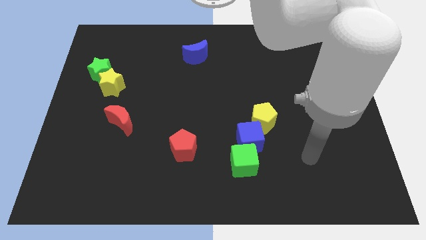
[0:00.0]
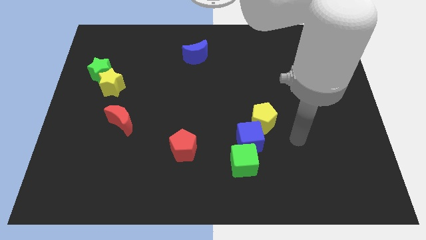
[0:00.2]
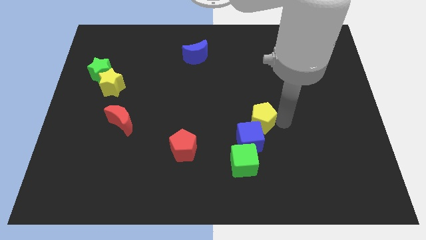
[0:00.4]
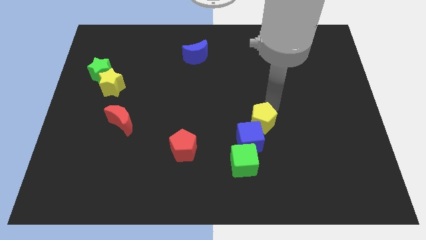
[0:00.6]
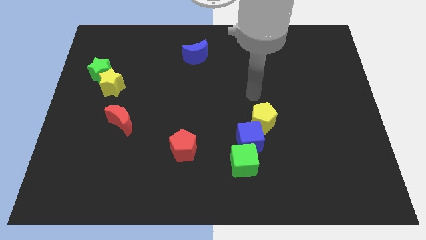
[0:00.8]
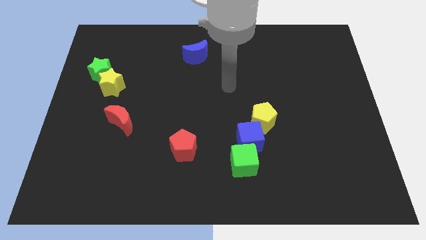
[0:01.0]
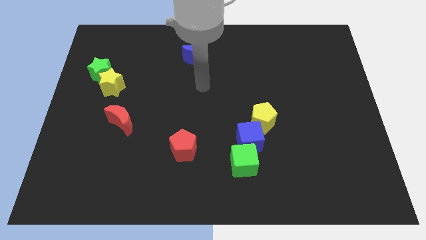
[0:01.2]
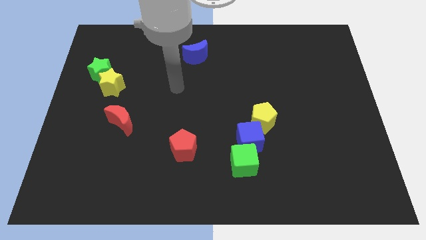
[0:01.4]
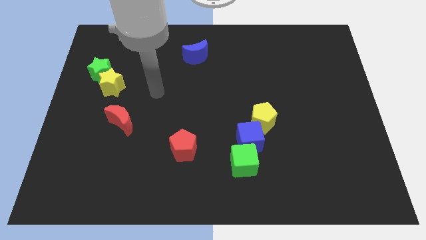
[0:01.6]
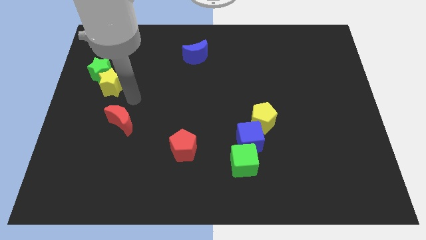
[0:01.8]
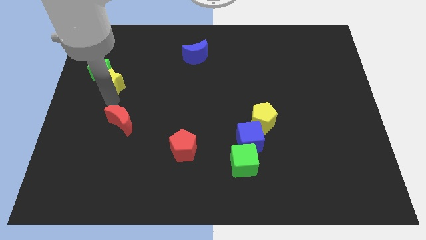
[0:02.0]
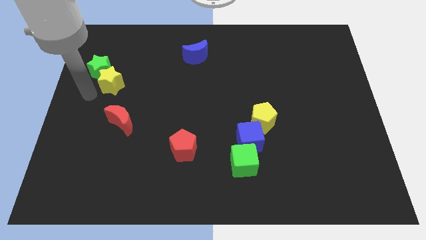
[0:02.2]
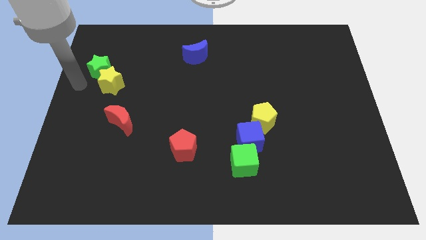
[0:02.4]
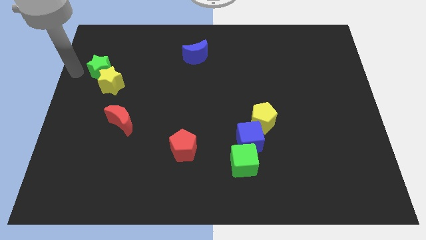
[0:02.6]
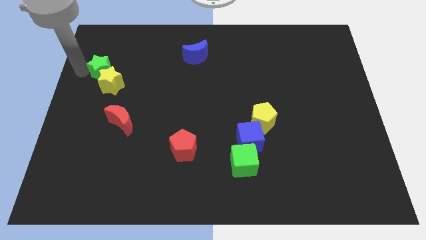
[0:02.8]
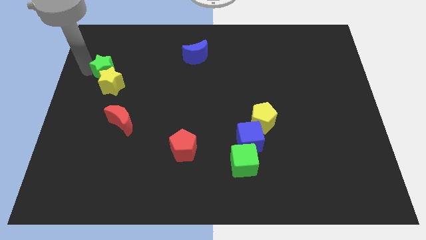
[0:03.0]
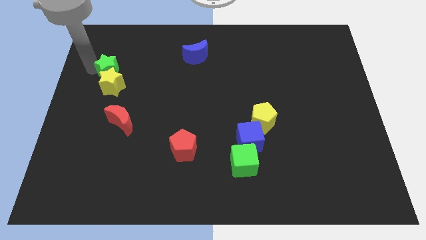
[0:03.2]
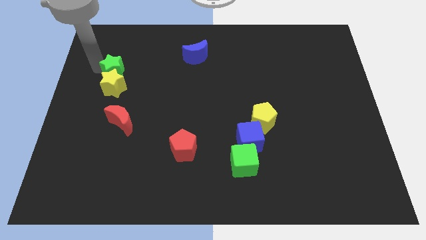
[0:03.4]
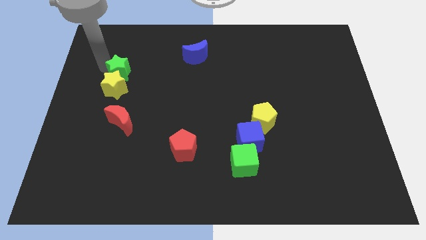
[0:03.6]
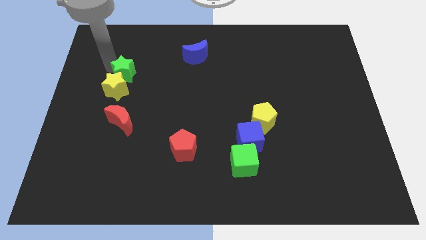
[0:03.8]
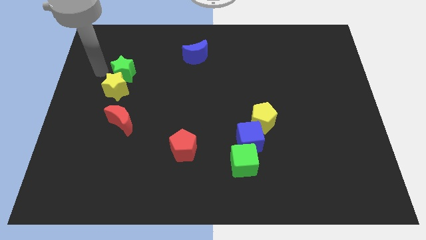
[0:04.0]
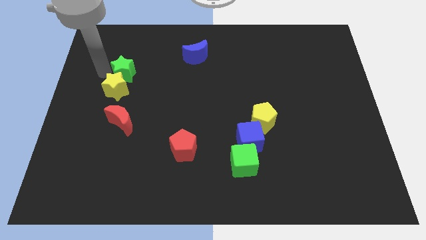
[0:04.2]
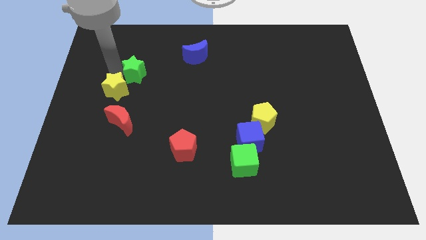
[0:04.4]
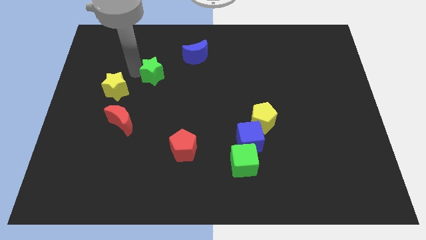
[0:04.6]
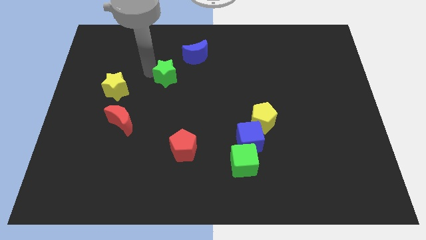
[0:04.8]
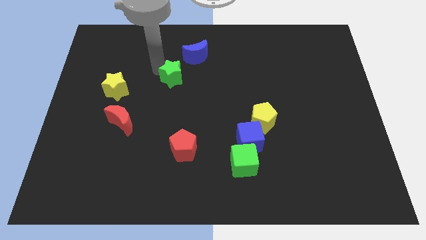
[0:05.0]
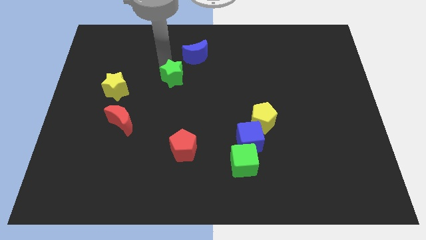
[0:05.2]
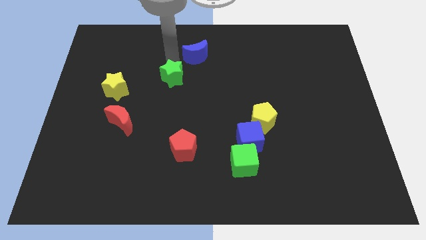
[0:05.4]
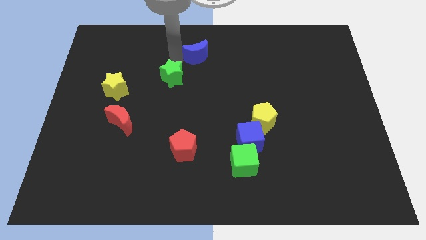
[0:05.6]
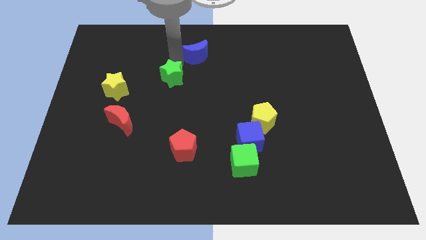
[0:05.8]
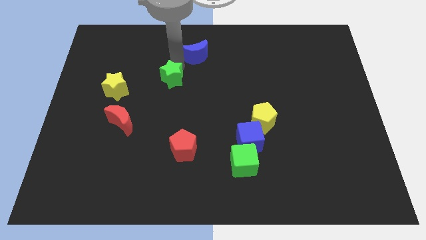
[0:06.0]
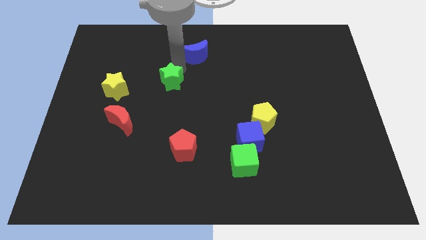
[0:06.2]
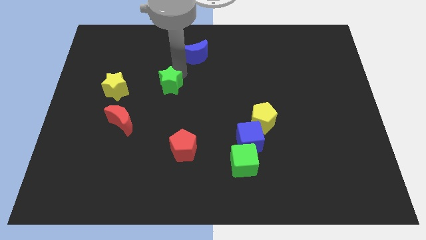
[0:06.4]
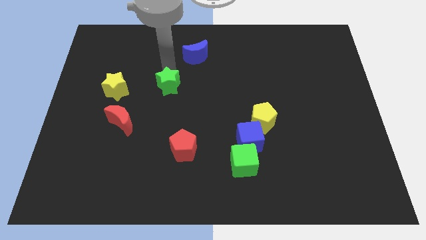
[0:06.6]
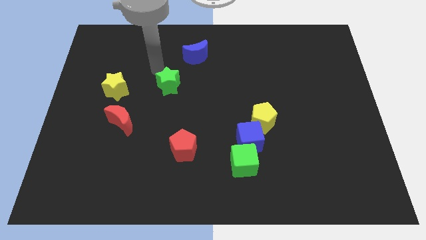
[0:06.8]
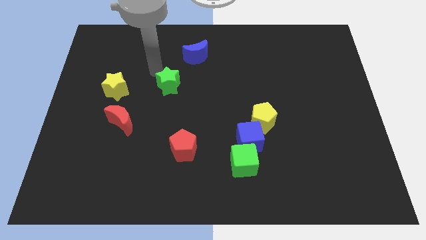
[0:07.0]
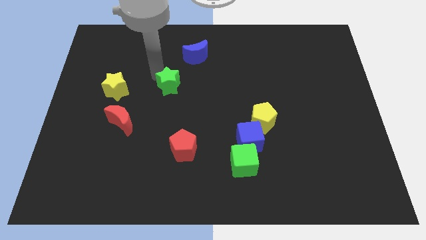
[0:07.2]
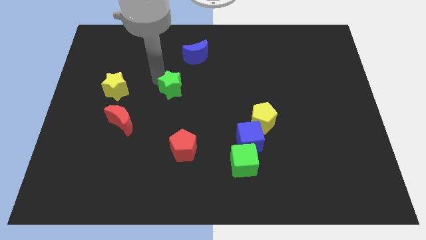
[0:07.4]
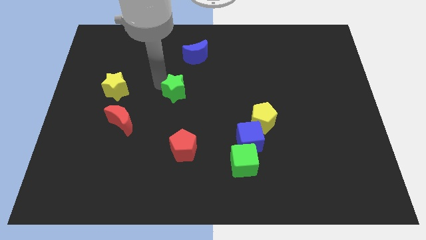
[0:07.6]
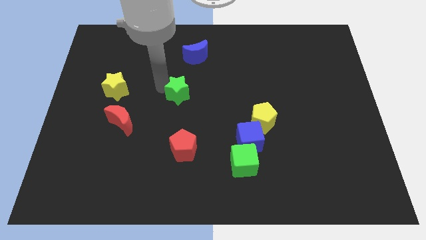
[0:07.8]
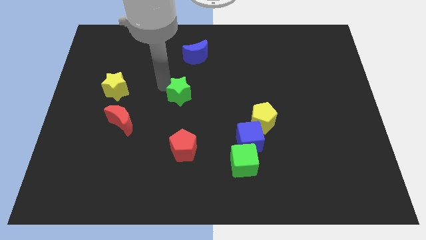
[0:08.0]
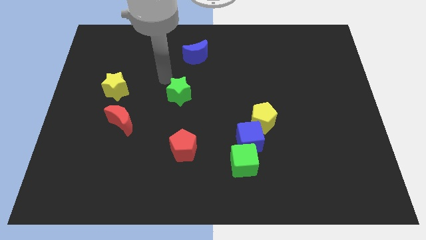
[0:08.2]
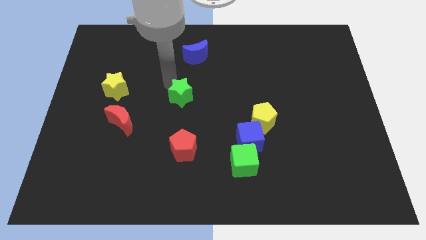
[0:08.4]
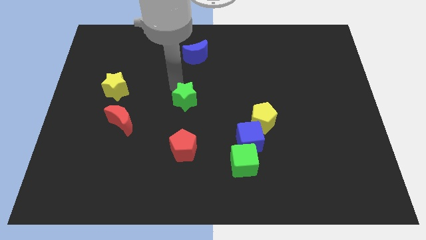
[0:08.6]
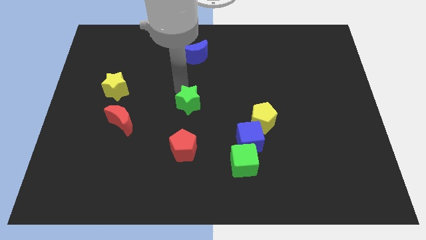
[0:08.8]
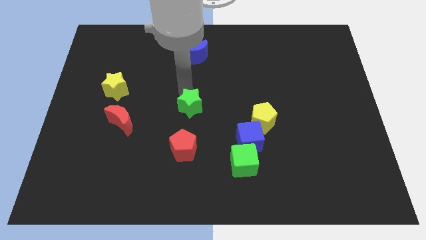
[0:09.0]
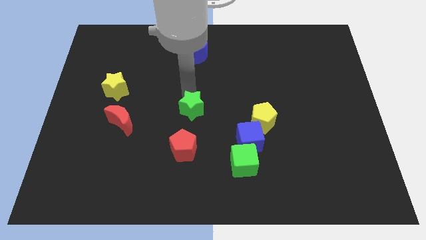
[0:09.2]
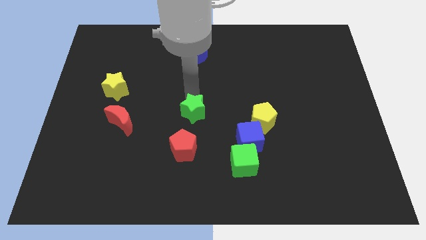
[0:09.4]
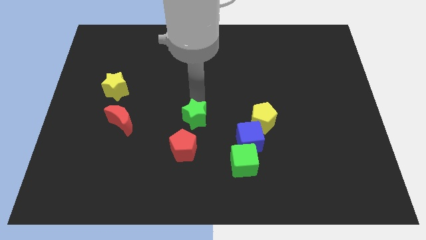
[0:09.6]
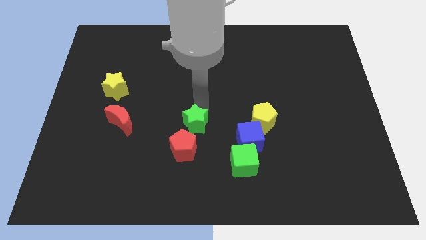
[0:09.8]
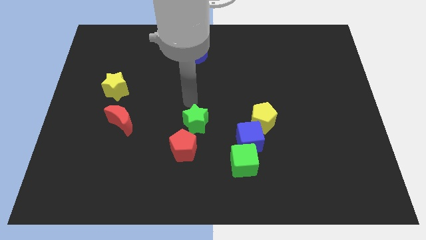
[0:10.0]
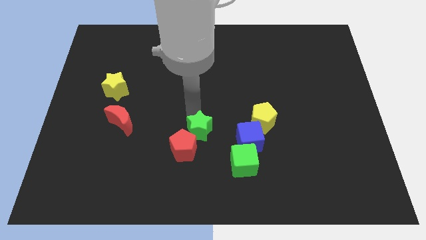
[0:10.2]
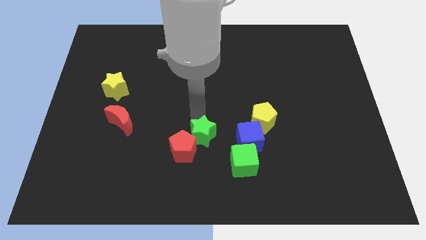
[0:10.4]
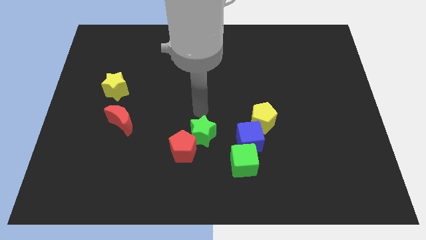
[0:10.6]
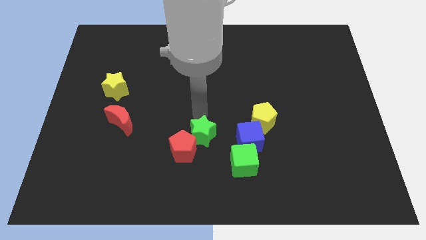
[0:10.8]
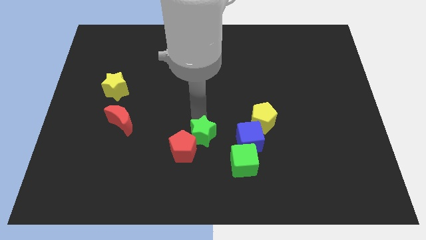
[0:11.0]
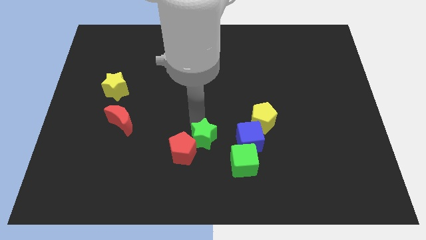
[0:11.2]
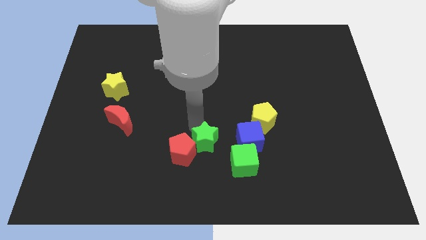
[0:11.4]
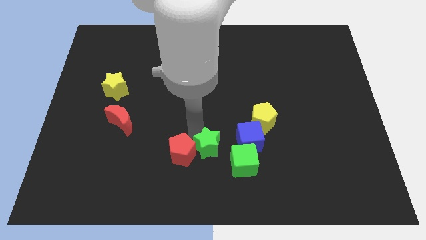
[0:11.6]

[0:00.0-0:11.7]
push the green star to the bottom right side of the red pentagon

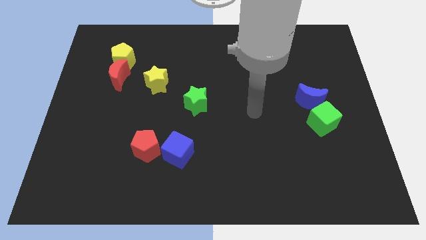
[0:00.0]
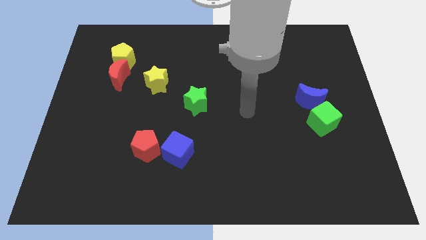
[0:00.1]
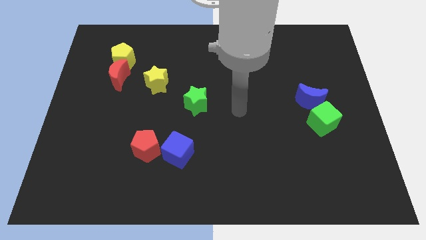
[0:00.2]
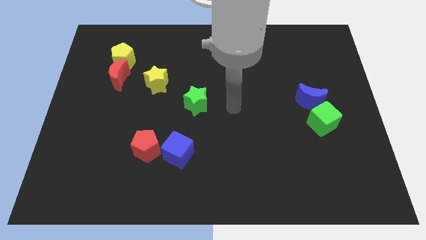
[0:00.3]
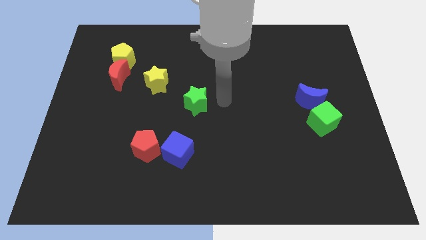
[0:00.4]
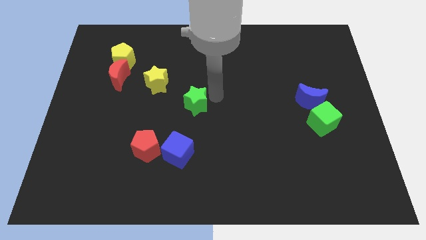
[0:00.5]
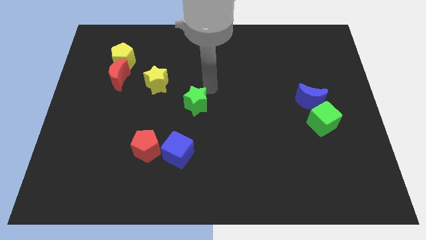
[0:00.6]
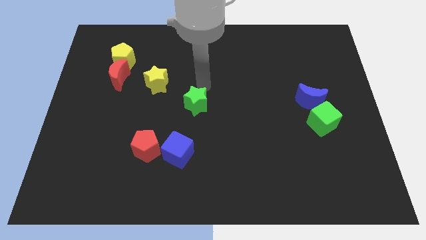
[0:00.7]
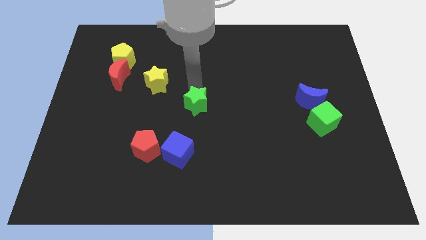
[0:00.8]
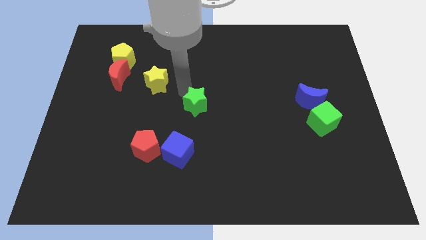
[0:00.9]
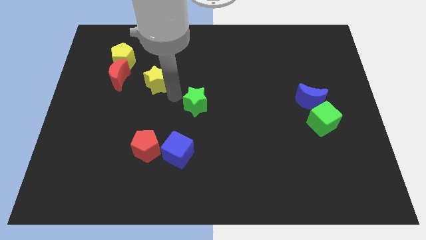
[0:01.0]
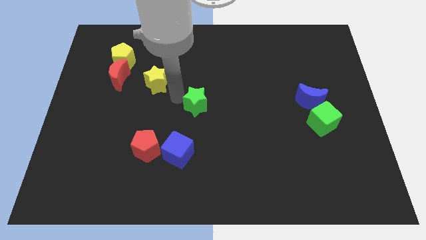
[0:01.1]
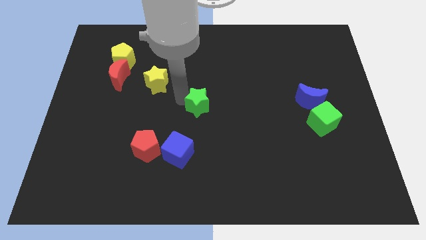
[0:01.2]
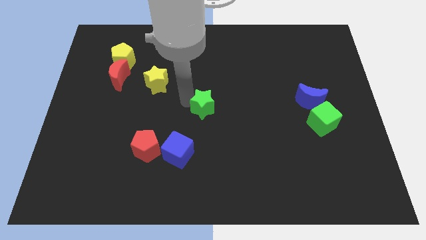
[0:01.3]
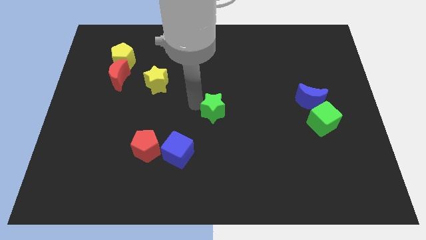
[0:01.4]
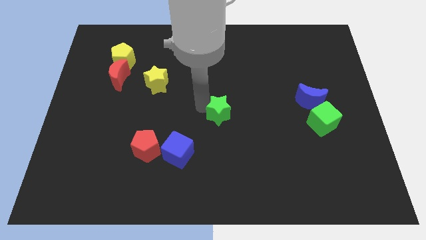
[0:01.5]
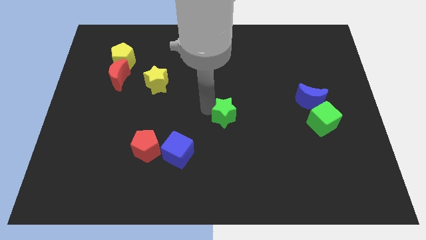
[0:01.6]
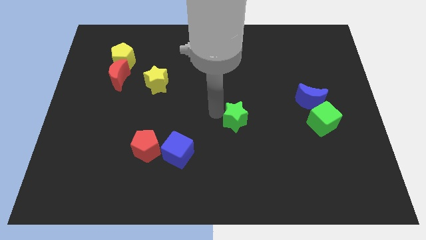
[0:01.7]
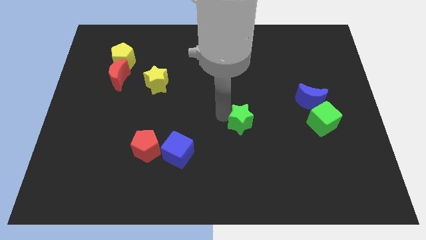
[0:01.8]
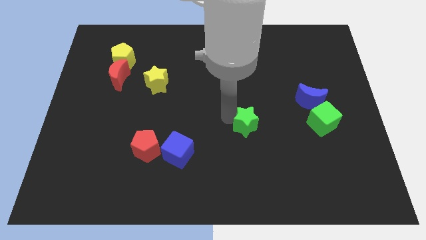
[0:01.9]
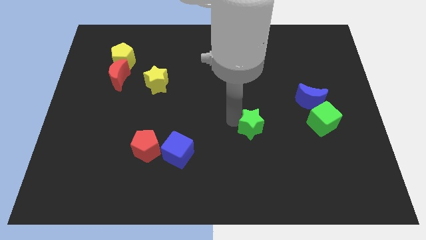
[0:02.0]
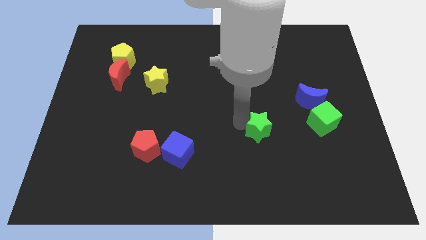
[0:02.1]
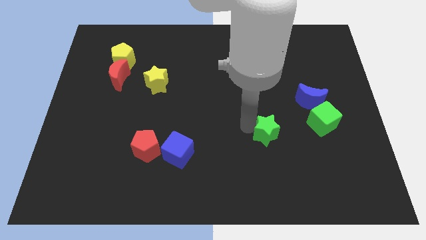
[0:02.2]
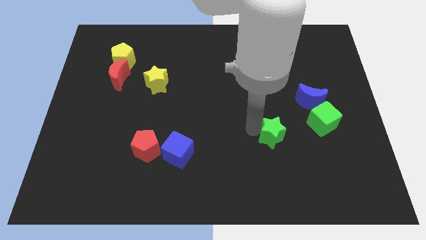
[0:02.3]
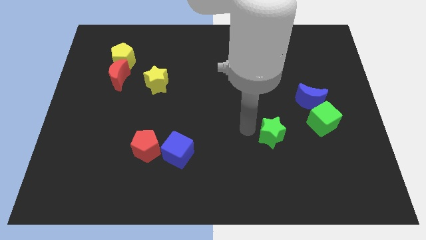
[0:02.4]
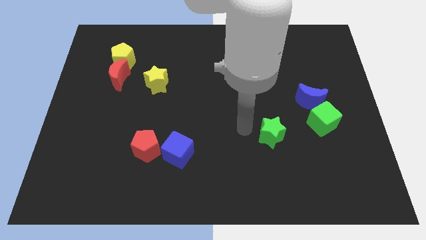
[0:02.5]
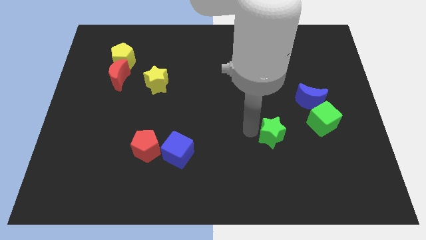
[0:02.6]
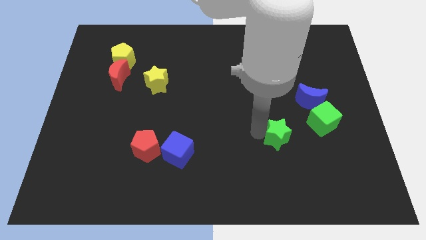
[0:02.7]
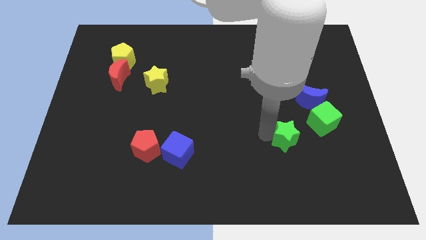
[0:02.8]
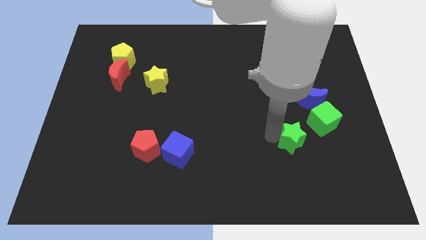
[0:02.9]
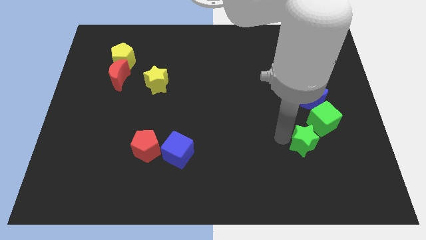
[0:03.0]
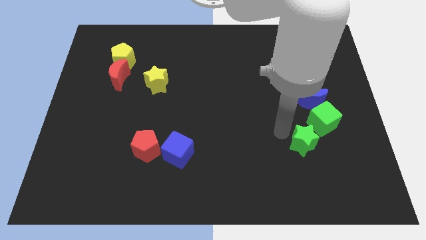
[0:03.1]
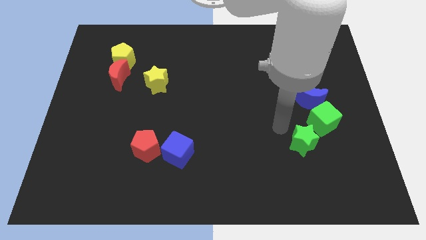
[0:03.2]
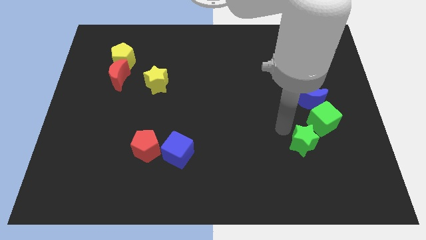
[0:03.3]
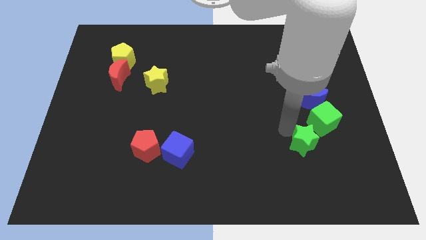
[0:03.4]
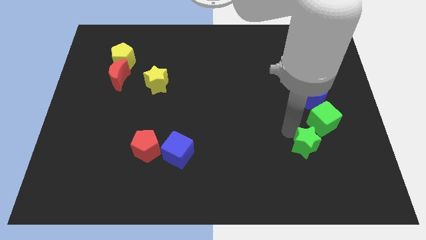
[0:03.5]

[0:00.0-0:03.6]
slide the green star to the bottom of the green cube
